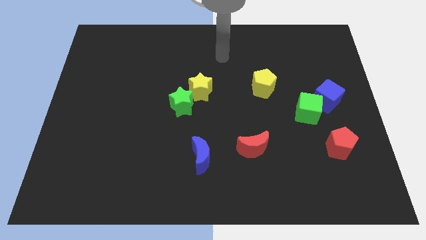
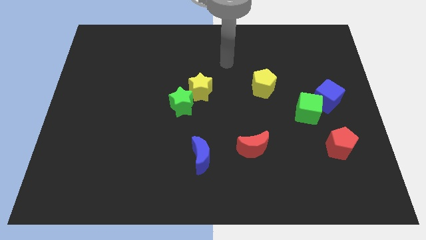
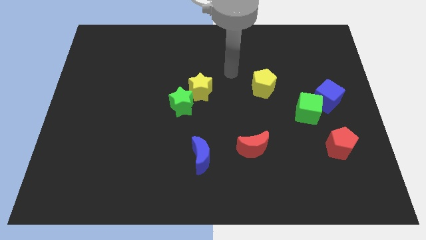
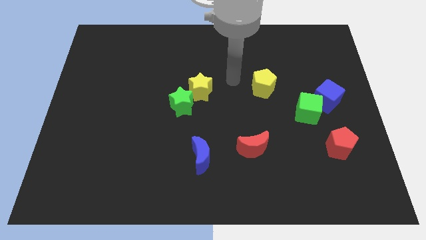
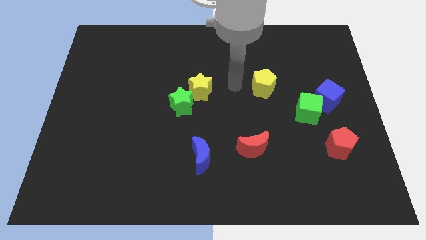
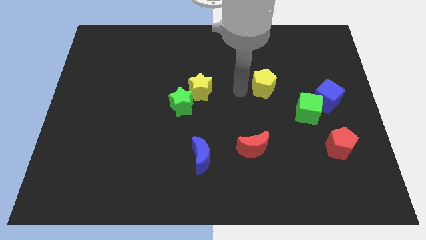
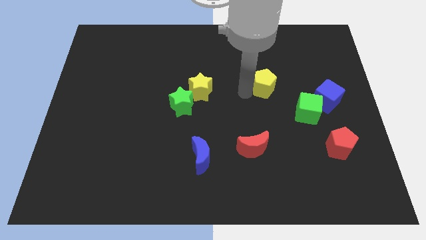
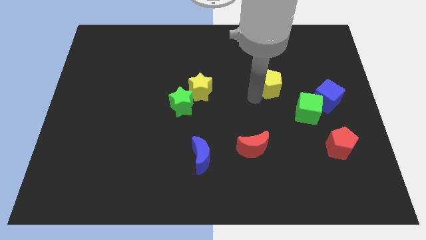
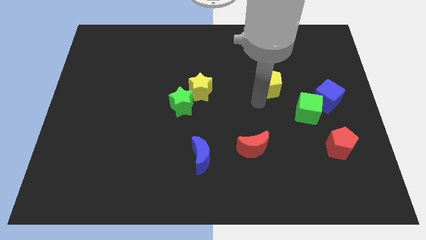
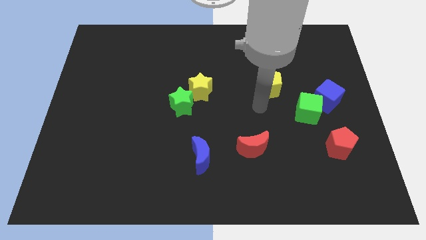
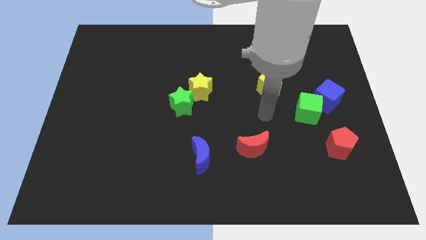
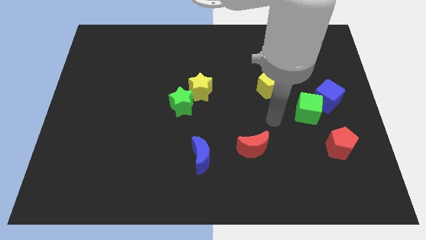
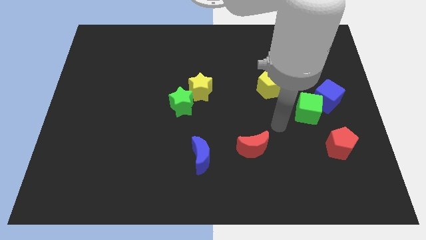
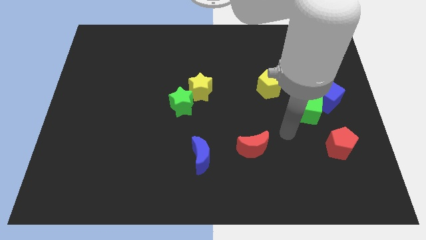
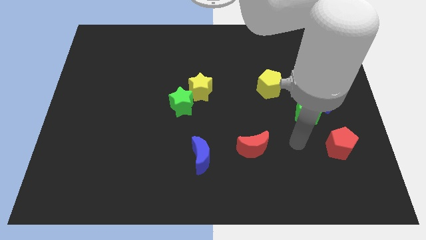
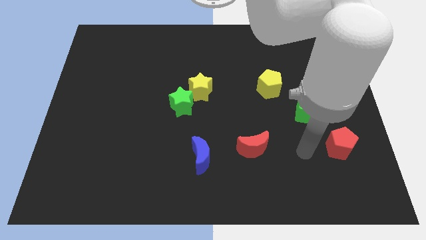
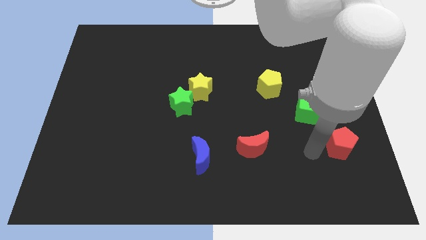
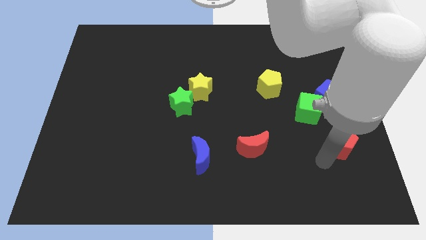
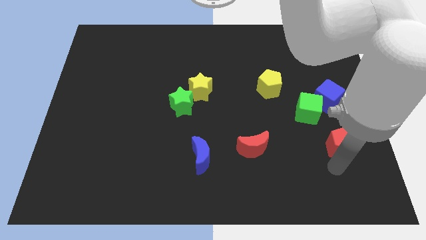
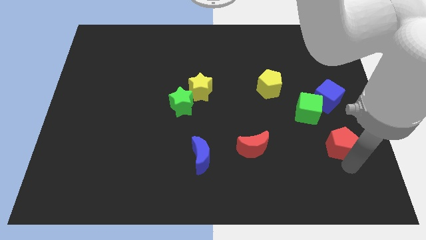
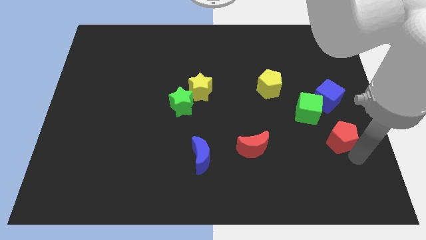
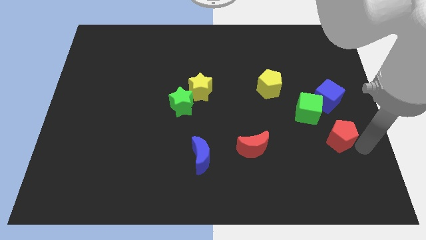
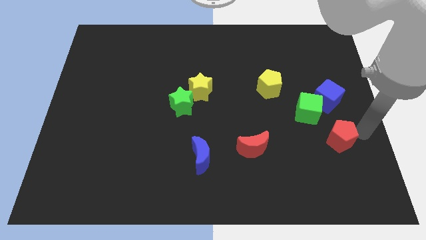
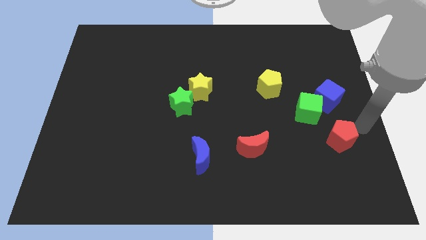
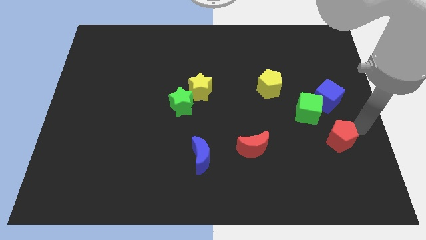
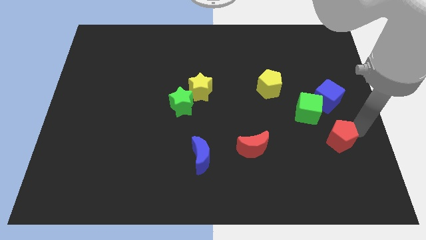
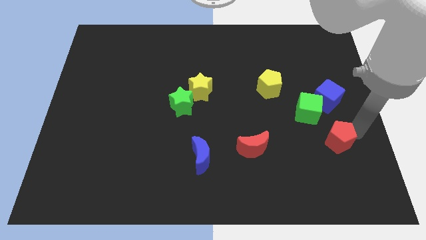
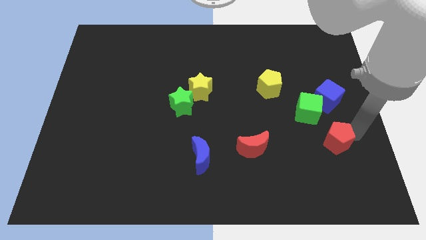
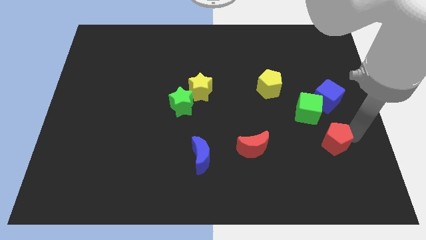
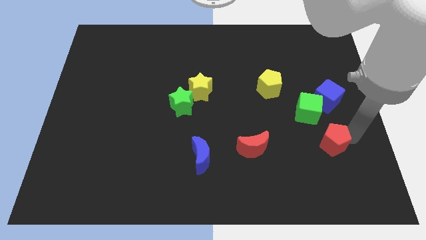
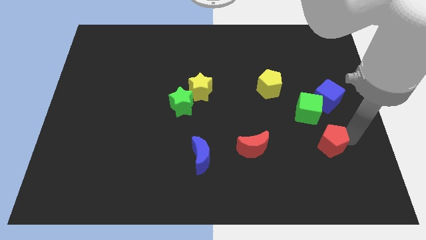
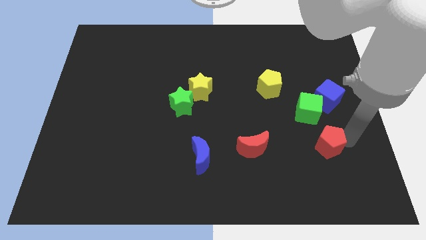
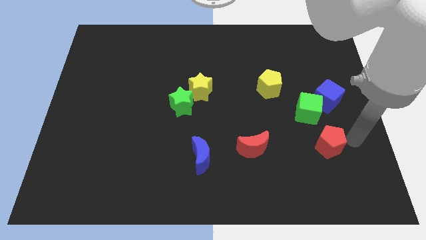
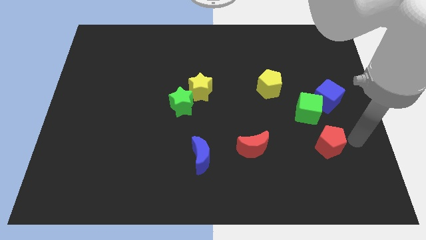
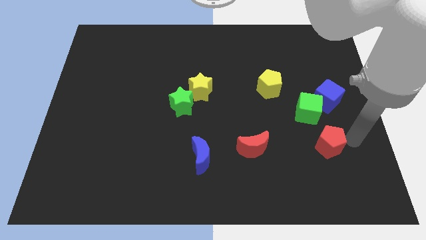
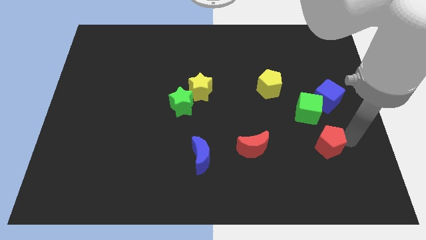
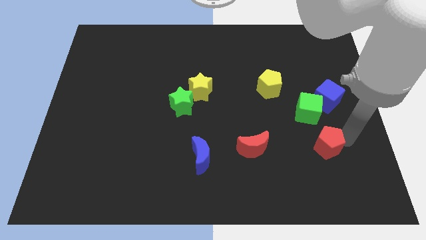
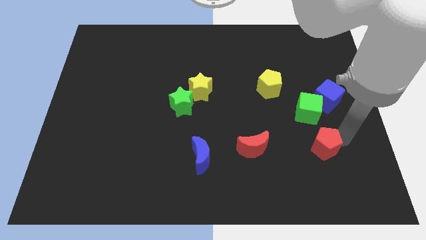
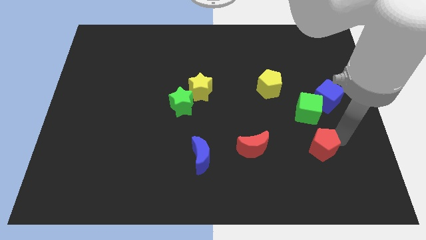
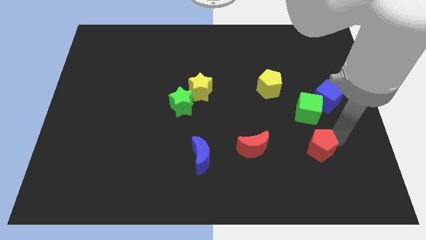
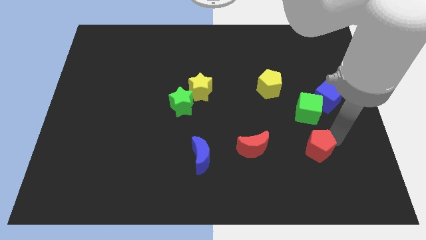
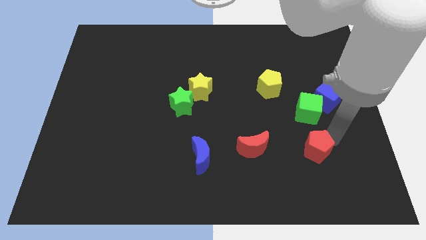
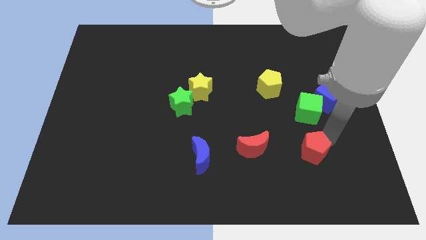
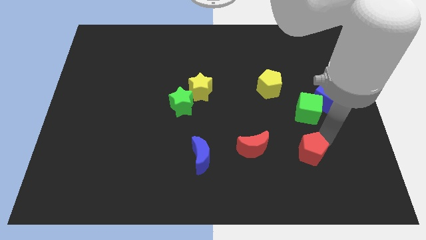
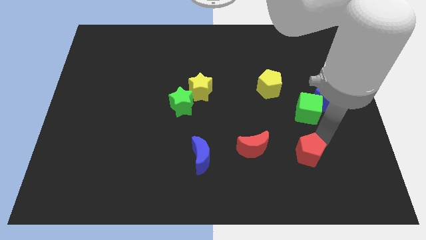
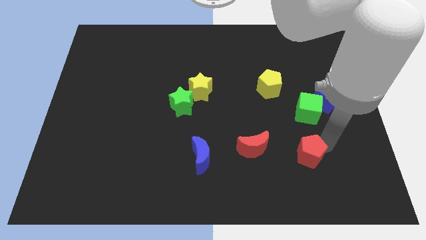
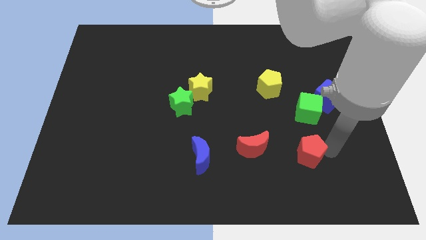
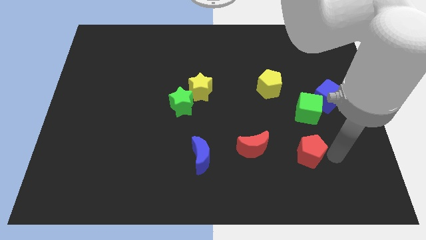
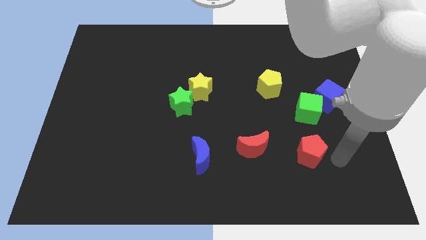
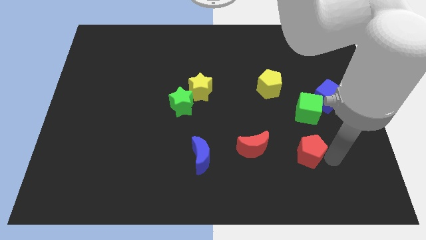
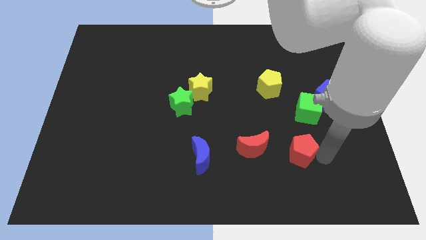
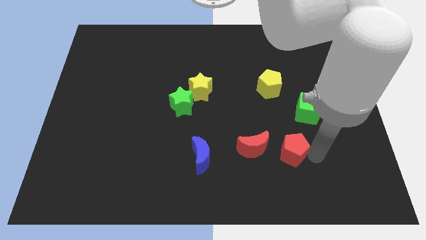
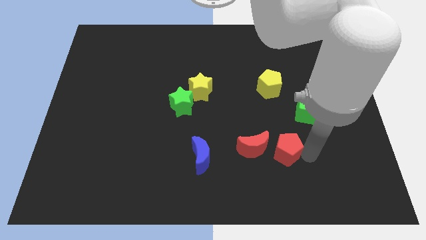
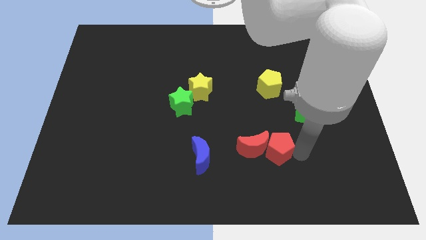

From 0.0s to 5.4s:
put the red pentagon to the red moon

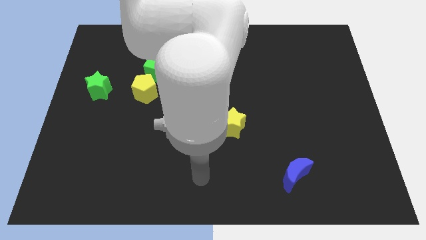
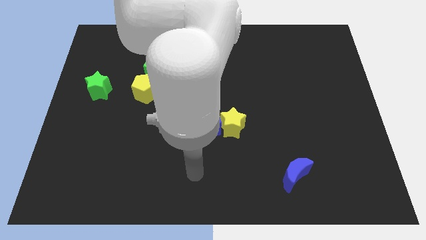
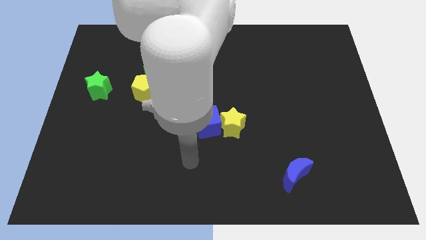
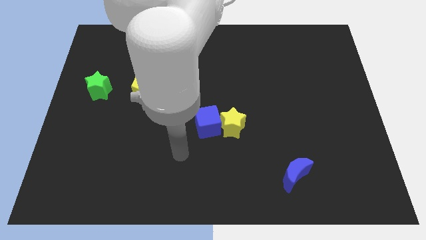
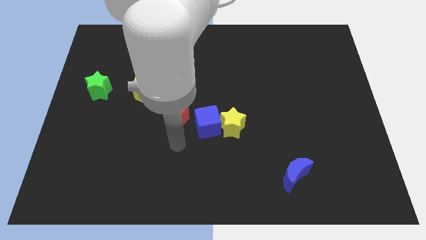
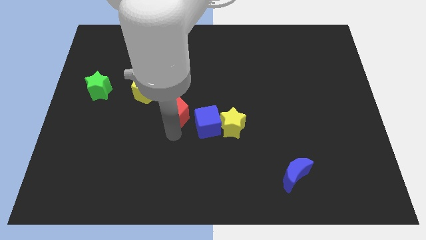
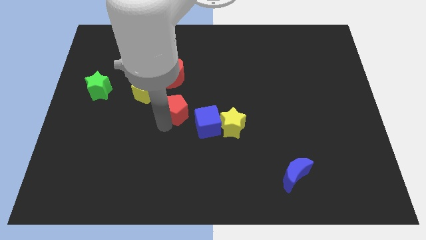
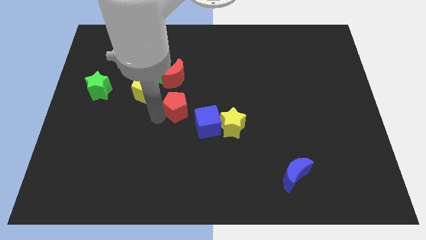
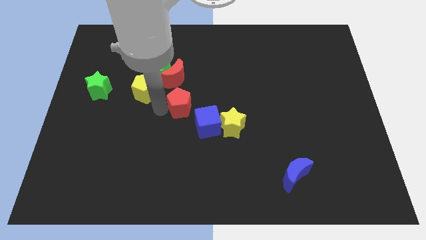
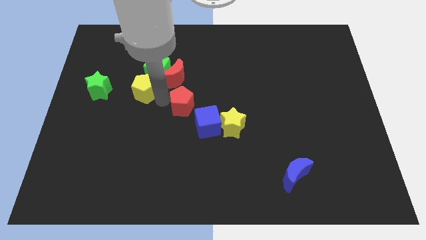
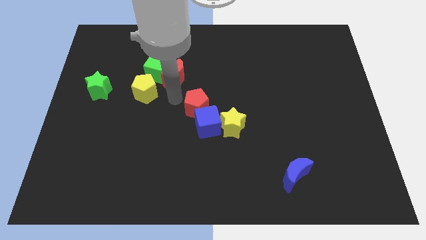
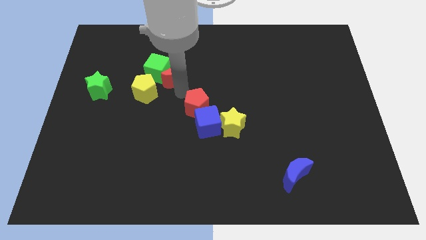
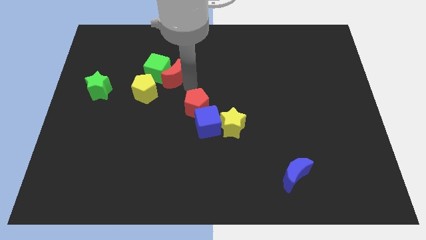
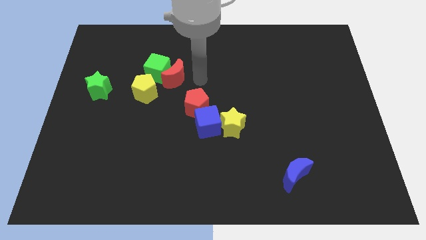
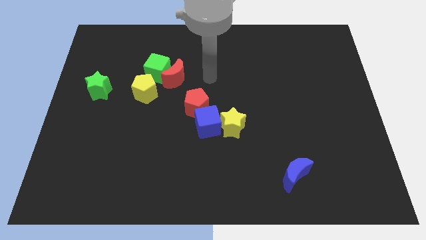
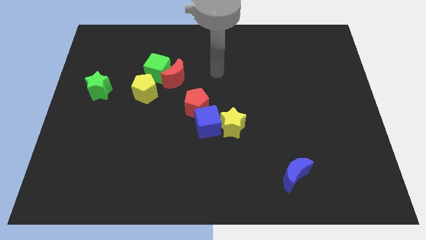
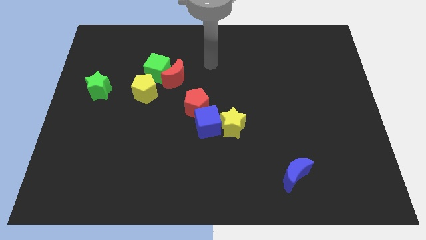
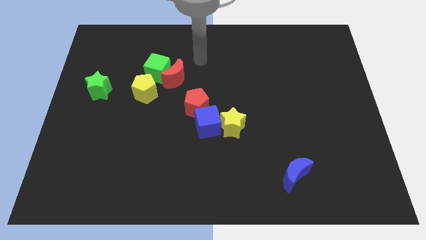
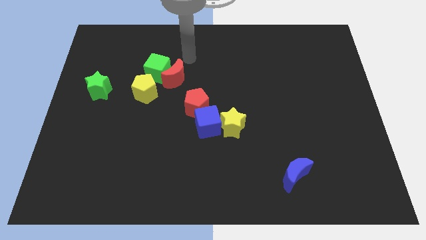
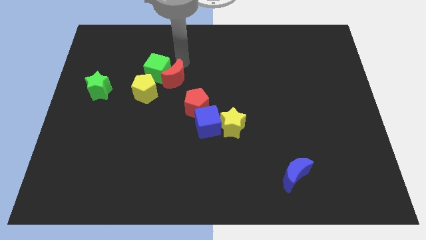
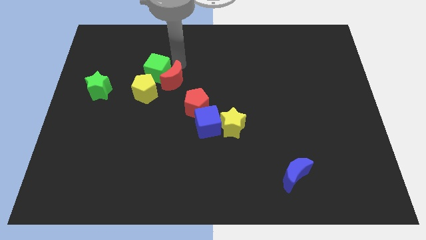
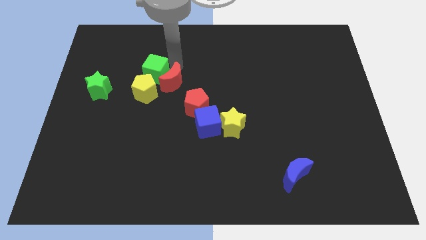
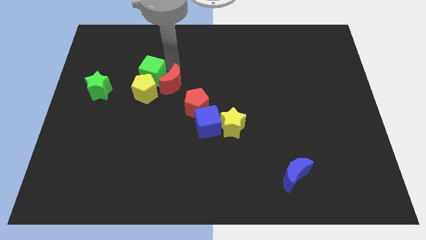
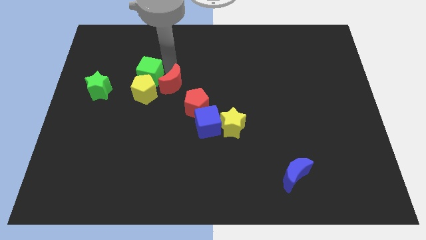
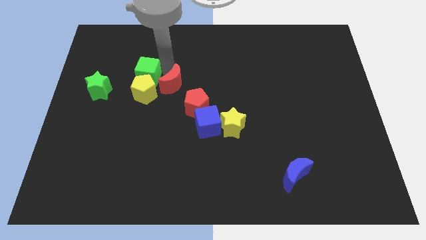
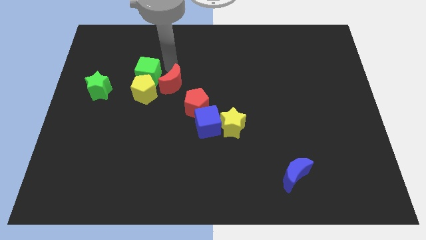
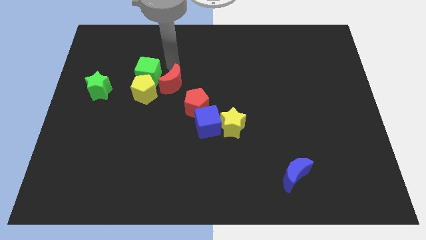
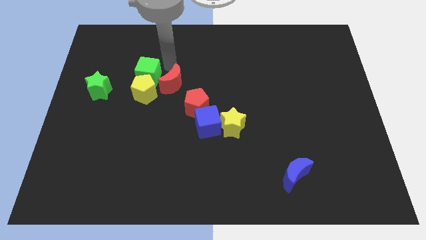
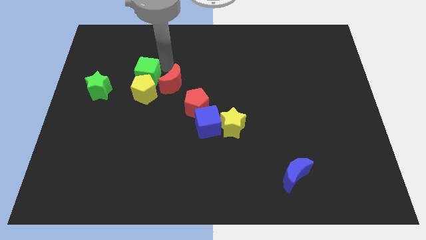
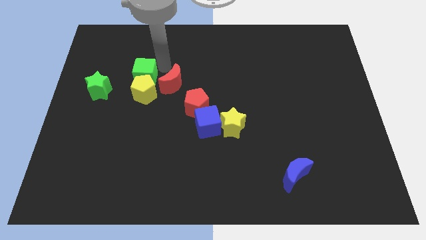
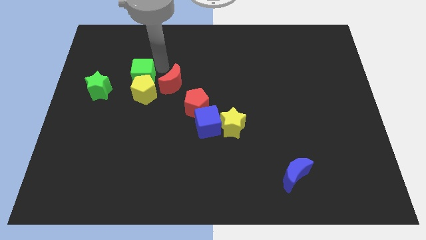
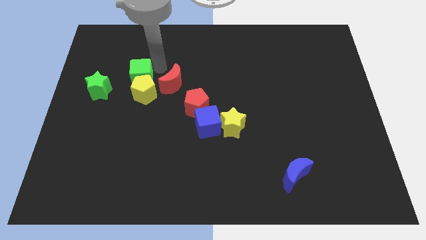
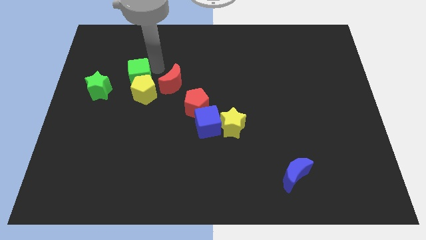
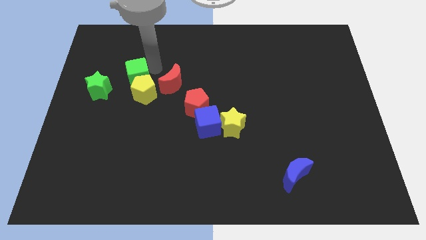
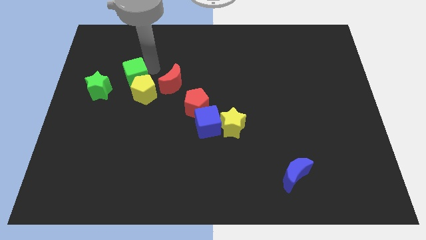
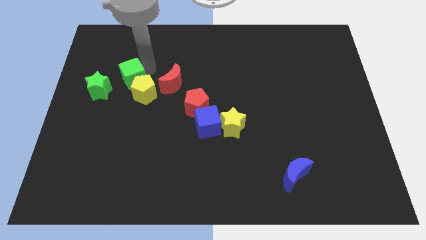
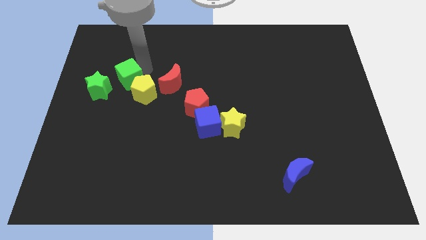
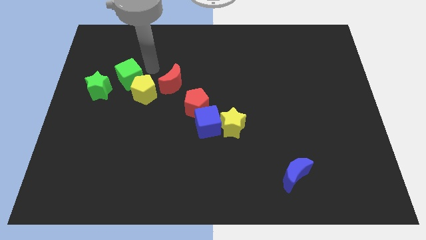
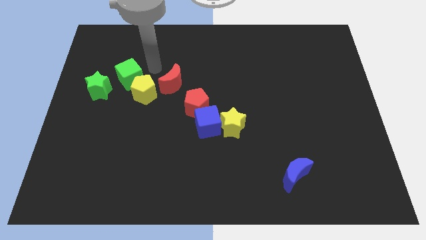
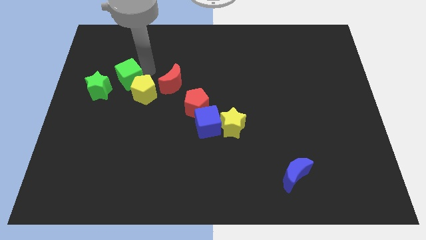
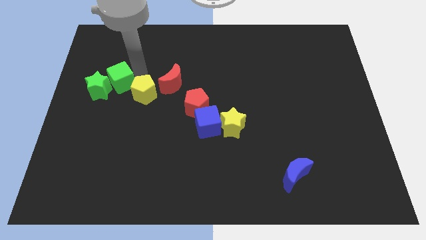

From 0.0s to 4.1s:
put the green cube close to the green star
